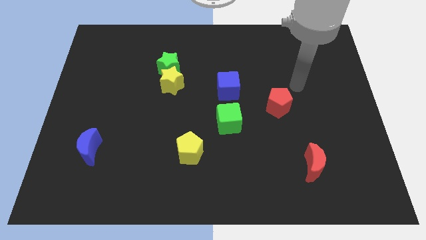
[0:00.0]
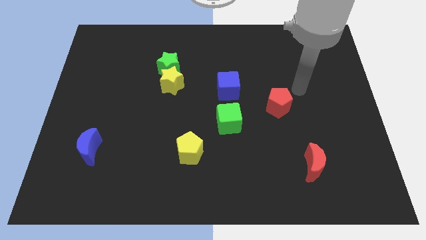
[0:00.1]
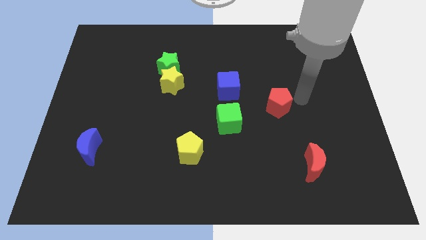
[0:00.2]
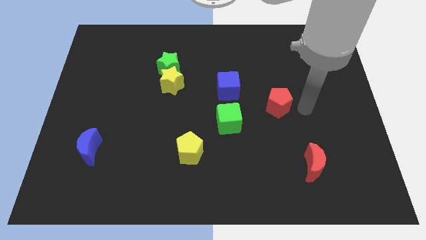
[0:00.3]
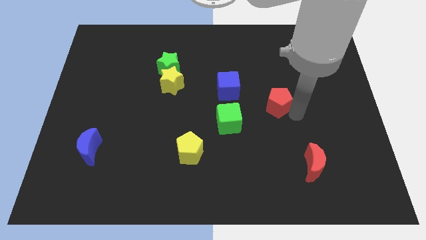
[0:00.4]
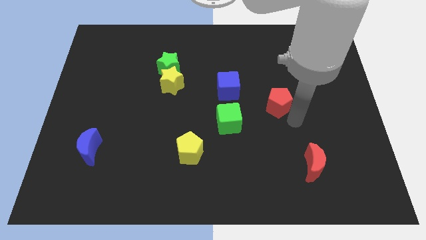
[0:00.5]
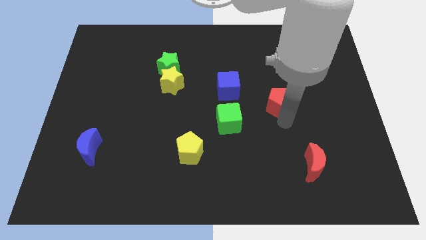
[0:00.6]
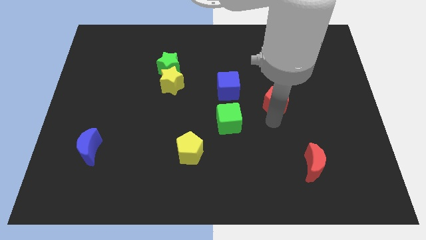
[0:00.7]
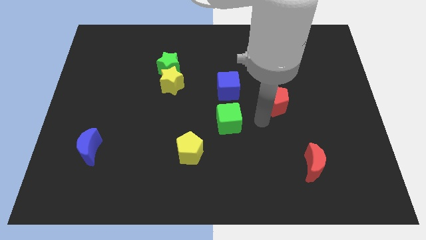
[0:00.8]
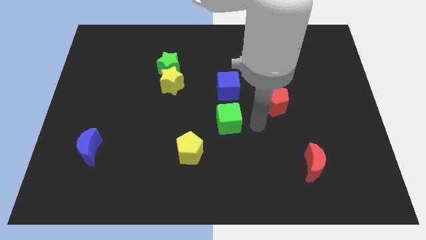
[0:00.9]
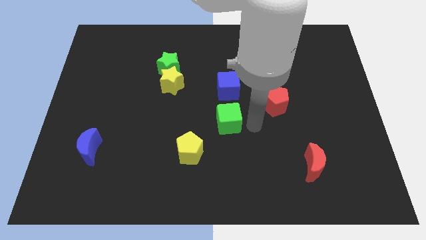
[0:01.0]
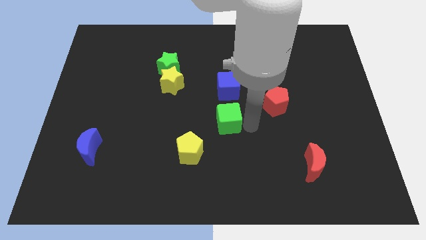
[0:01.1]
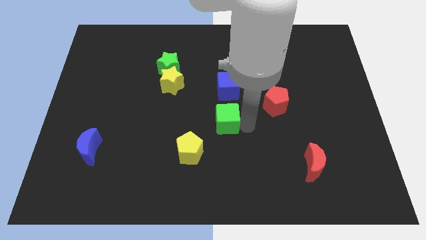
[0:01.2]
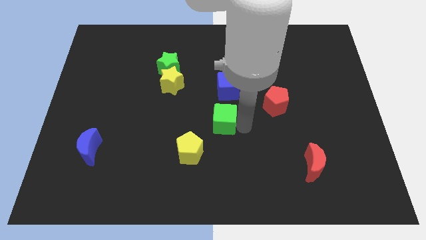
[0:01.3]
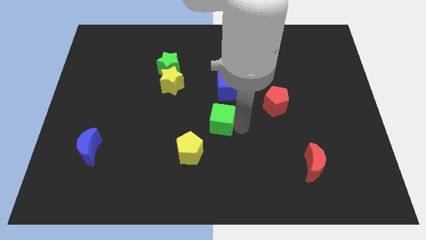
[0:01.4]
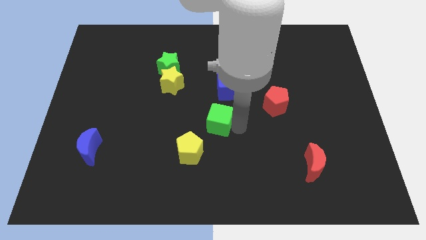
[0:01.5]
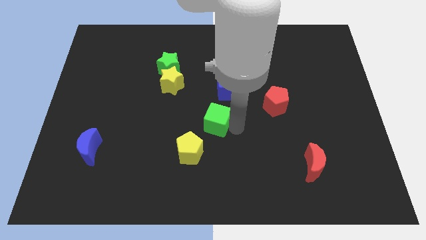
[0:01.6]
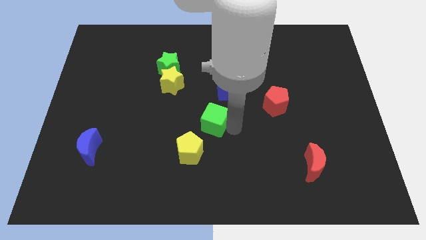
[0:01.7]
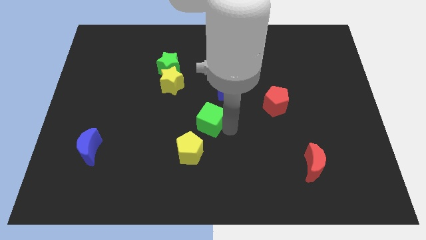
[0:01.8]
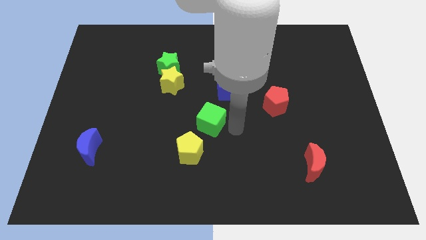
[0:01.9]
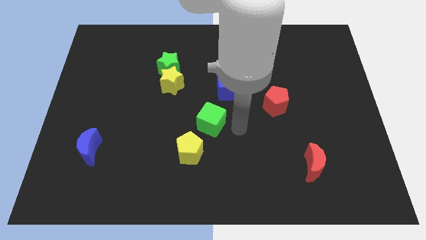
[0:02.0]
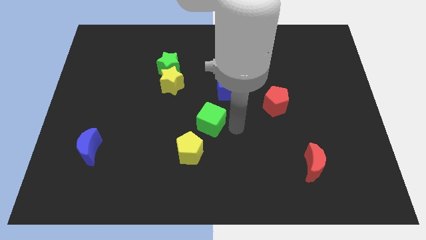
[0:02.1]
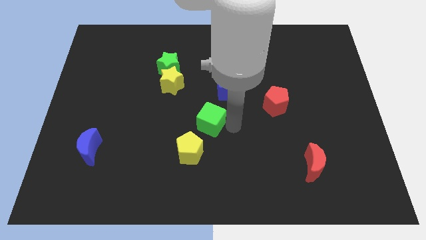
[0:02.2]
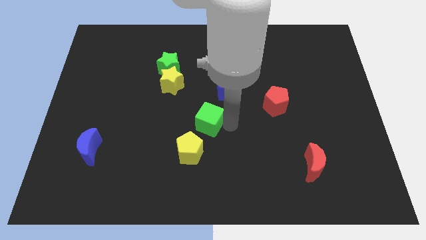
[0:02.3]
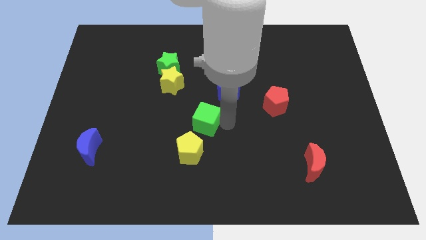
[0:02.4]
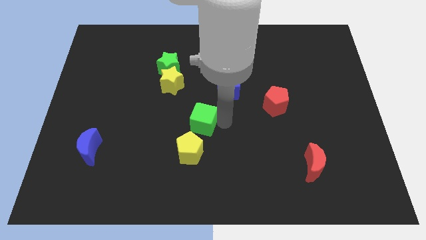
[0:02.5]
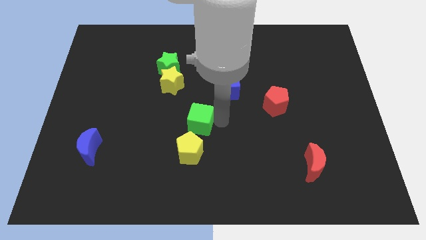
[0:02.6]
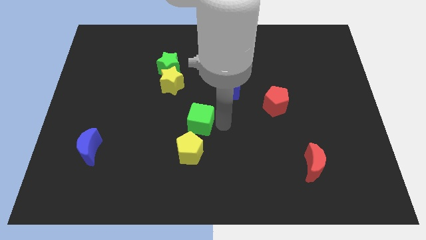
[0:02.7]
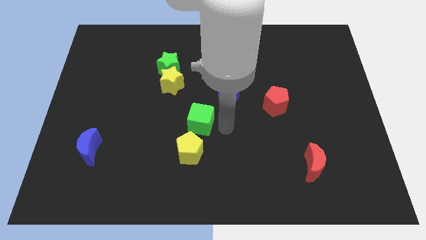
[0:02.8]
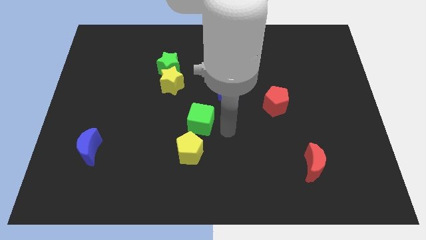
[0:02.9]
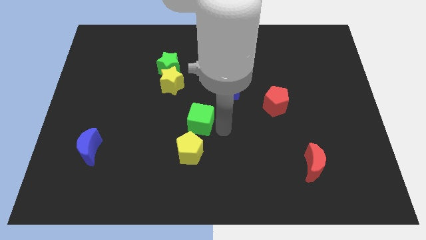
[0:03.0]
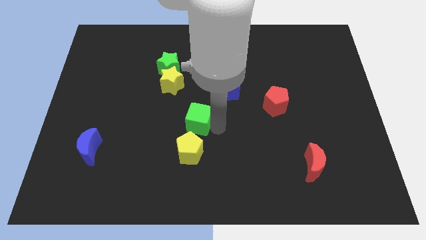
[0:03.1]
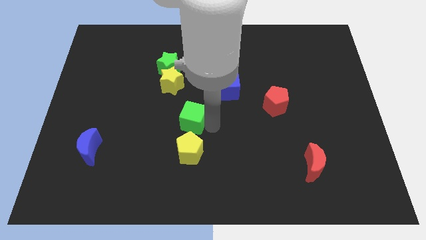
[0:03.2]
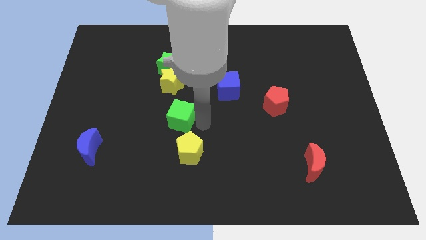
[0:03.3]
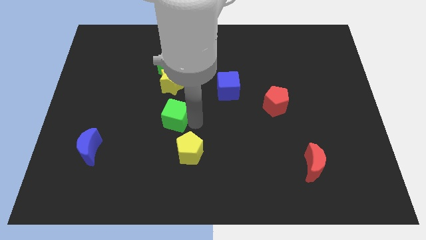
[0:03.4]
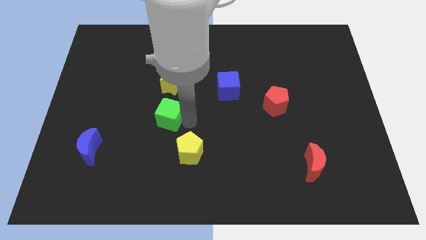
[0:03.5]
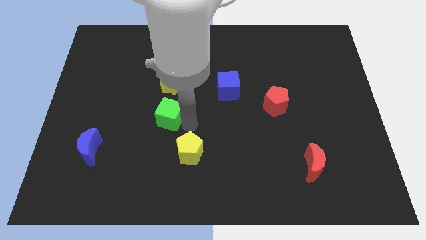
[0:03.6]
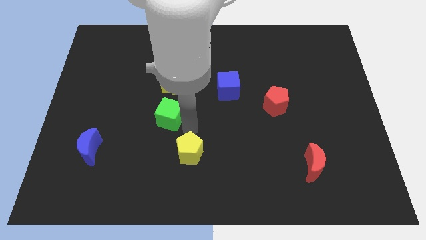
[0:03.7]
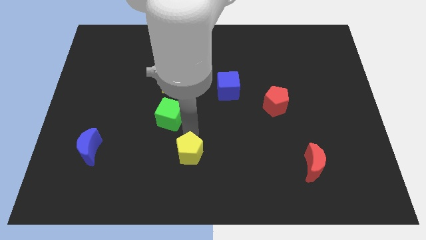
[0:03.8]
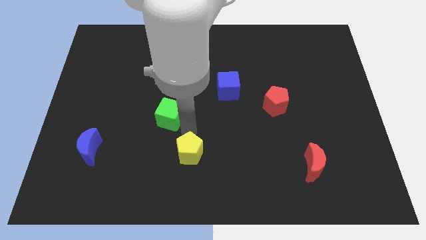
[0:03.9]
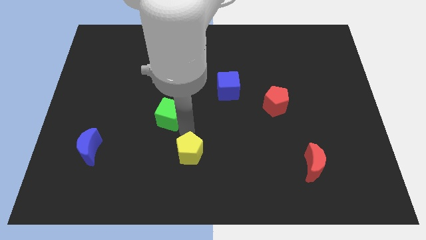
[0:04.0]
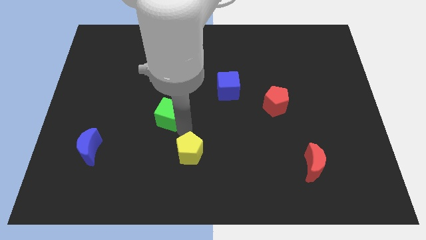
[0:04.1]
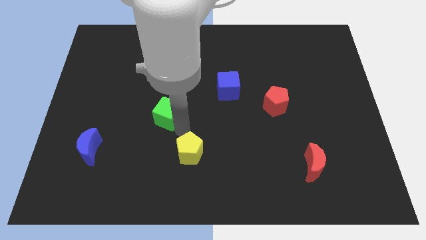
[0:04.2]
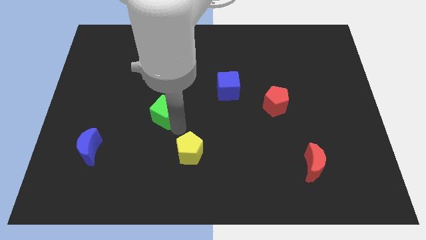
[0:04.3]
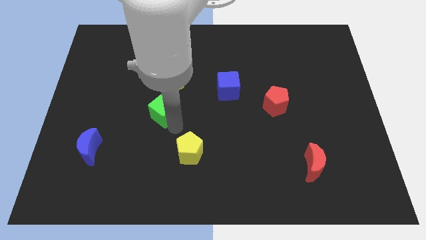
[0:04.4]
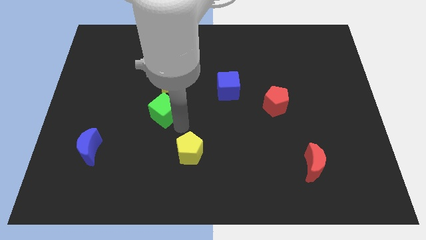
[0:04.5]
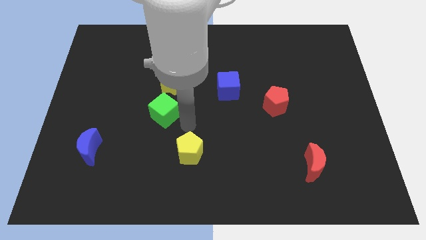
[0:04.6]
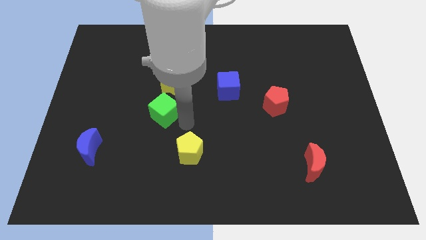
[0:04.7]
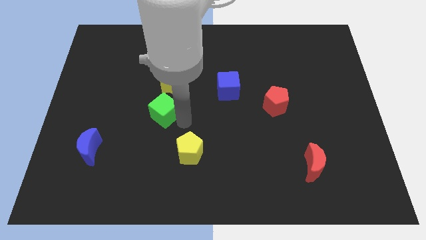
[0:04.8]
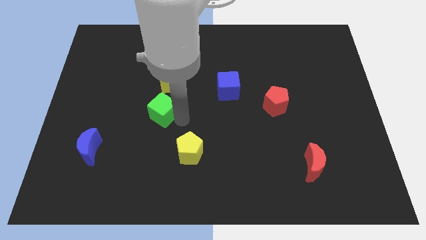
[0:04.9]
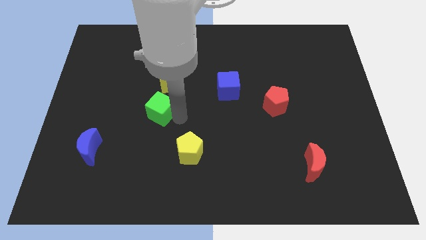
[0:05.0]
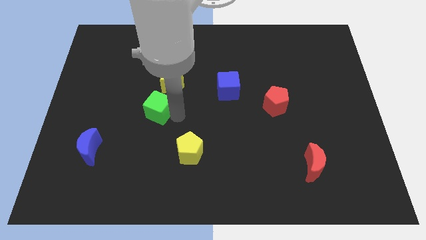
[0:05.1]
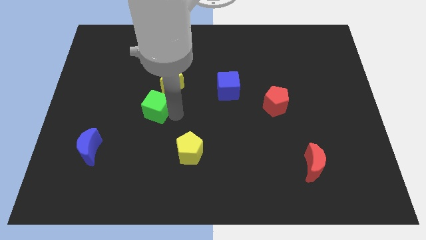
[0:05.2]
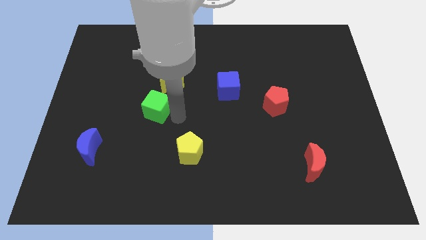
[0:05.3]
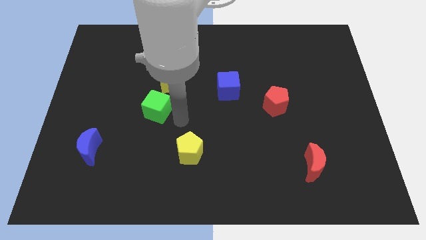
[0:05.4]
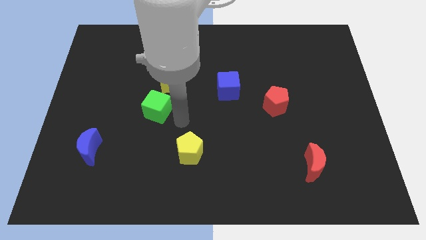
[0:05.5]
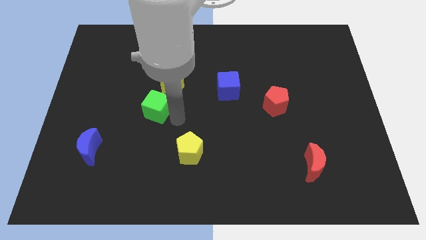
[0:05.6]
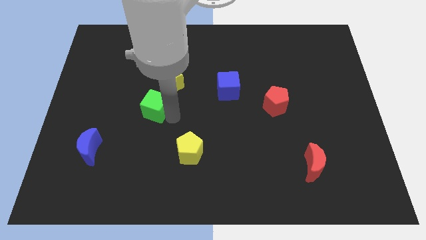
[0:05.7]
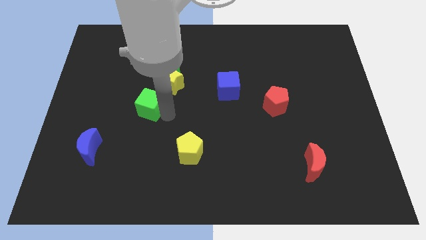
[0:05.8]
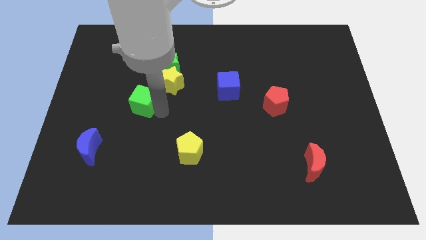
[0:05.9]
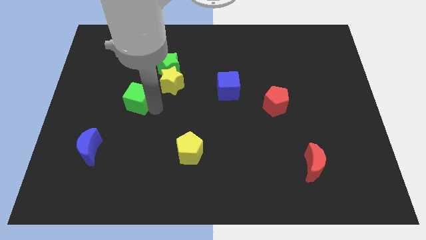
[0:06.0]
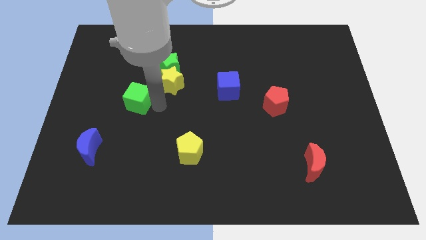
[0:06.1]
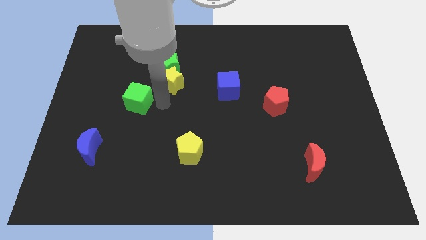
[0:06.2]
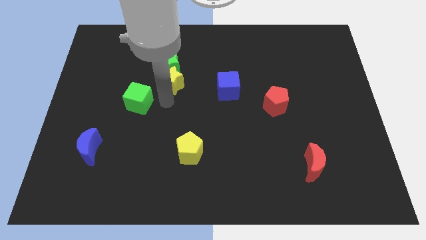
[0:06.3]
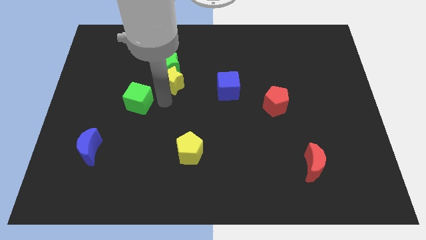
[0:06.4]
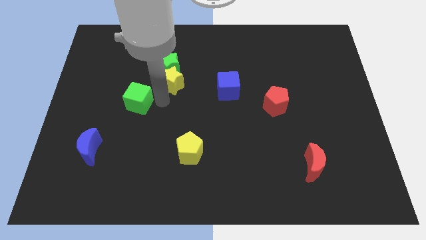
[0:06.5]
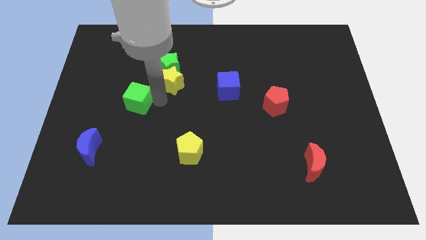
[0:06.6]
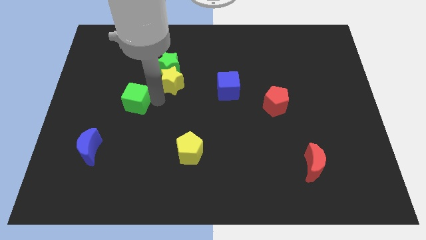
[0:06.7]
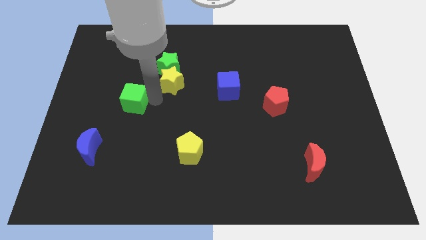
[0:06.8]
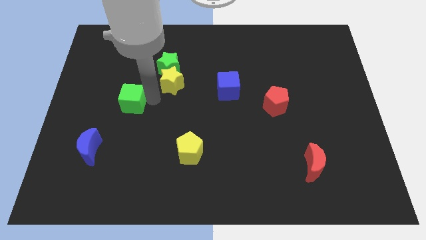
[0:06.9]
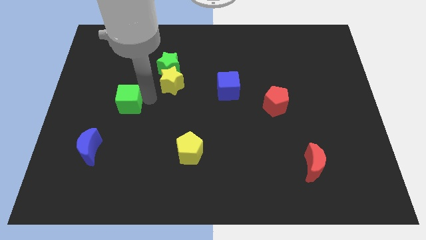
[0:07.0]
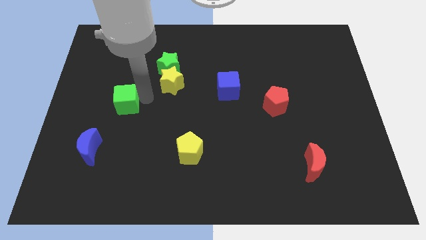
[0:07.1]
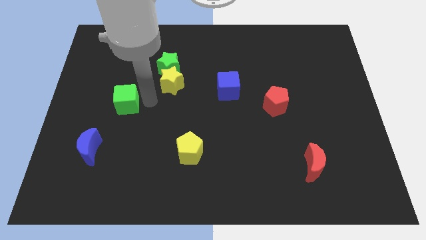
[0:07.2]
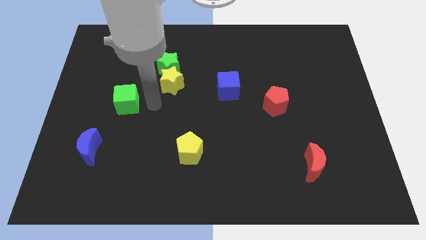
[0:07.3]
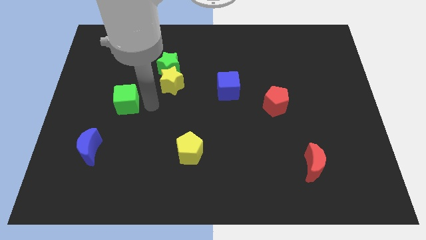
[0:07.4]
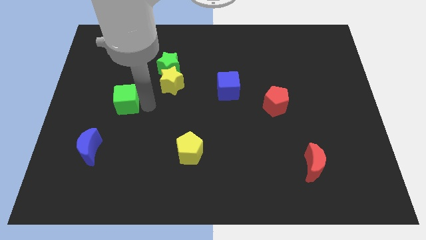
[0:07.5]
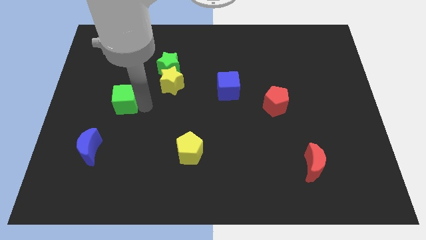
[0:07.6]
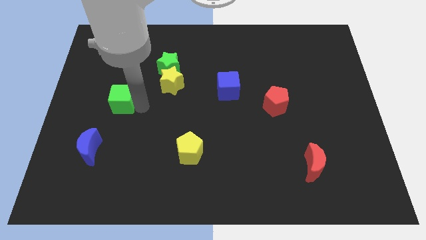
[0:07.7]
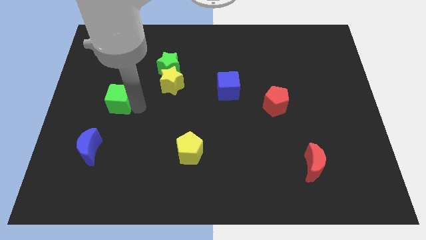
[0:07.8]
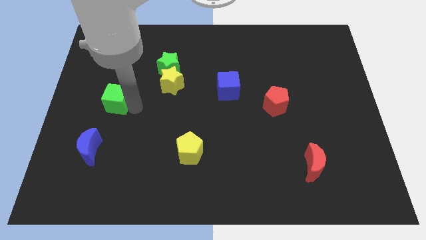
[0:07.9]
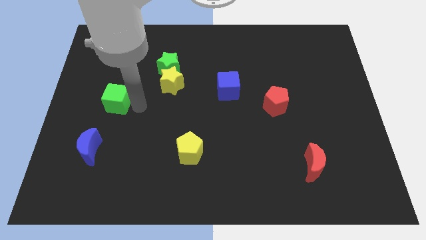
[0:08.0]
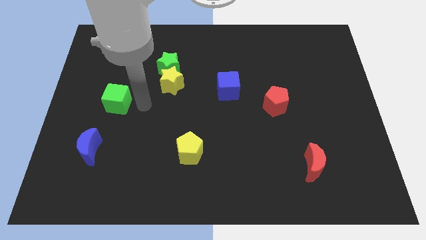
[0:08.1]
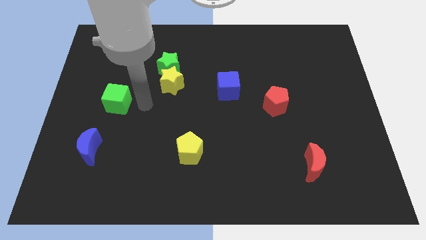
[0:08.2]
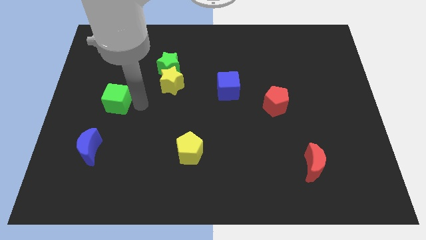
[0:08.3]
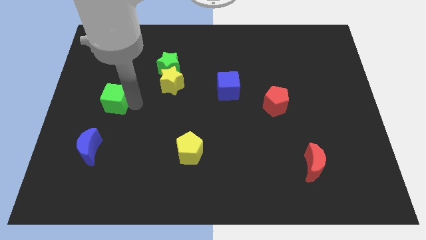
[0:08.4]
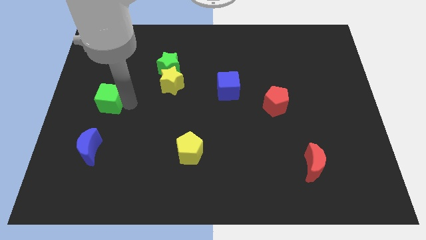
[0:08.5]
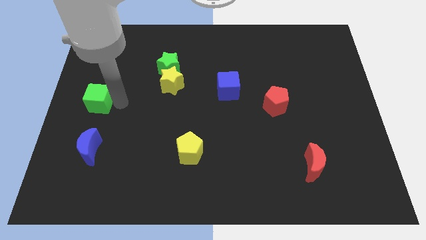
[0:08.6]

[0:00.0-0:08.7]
push the green cube to the left side of the board
